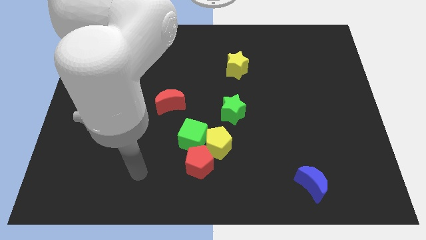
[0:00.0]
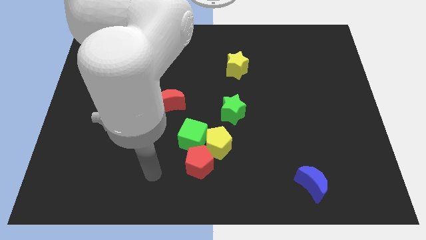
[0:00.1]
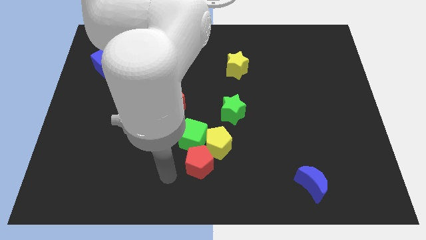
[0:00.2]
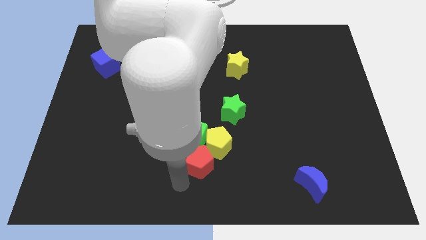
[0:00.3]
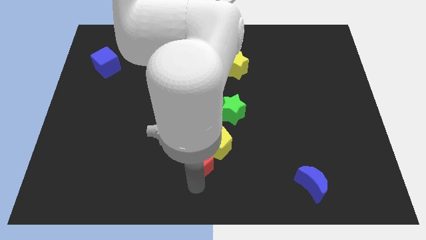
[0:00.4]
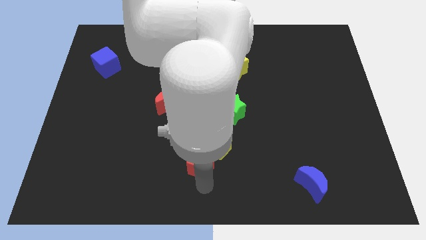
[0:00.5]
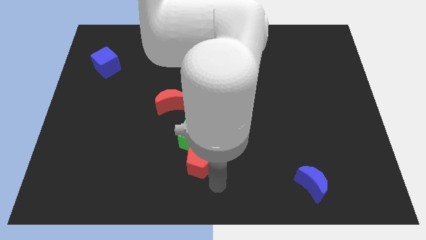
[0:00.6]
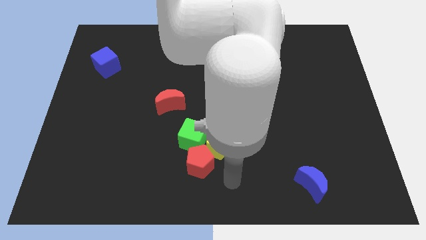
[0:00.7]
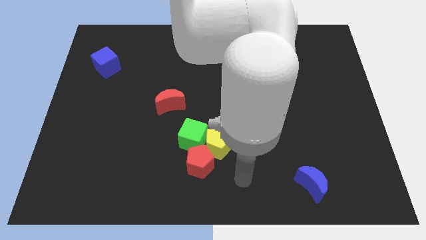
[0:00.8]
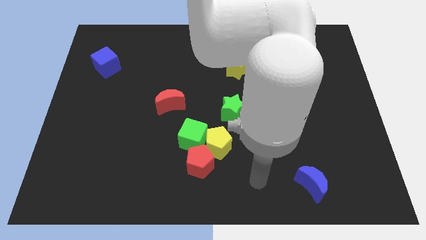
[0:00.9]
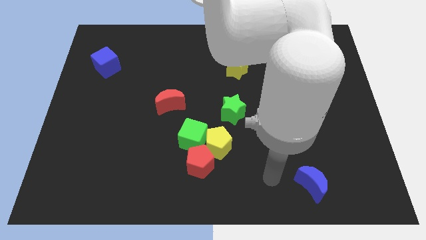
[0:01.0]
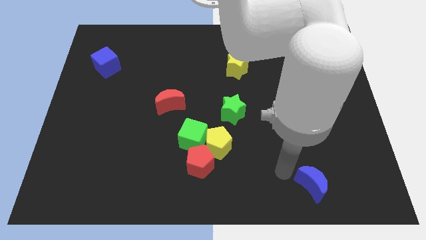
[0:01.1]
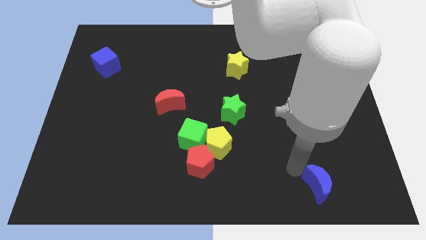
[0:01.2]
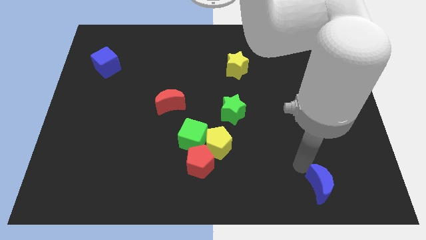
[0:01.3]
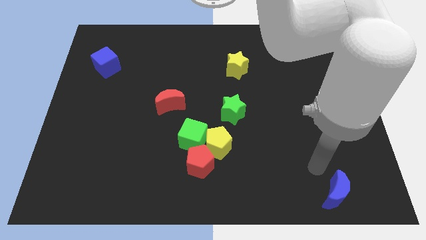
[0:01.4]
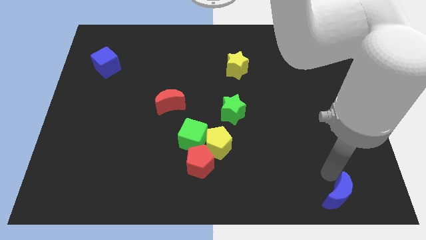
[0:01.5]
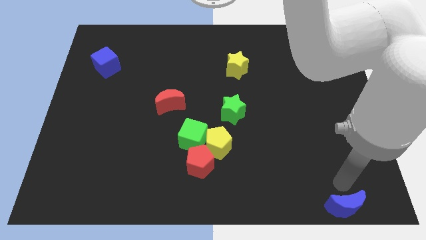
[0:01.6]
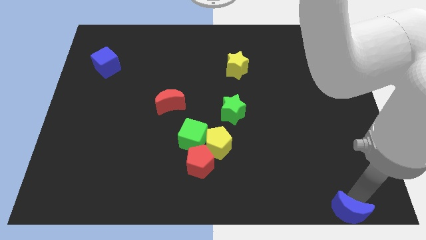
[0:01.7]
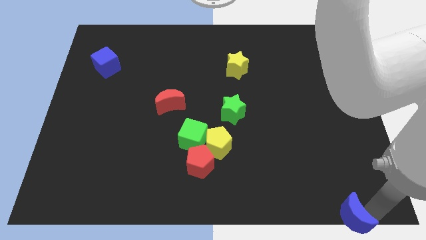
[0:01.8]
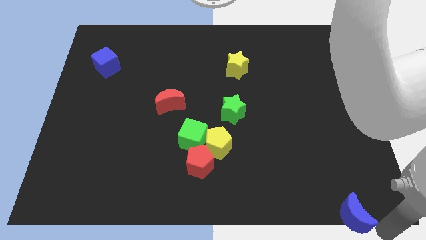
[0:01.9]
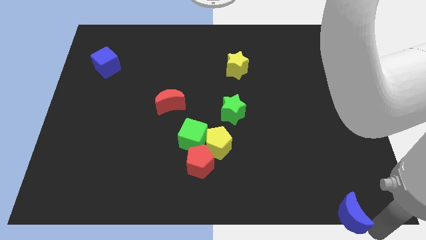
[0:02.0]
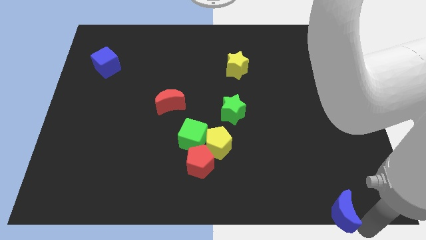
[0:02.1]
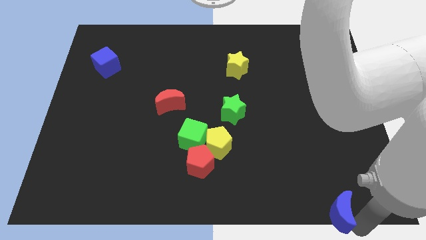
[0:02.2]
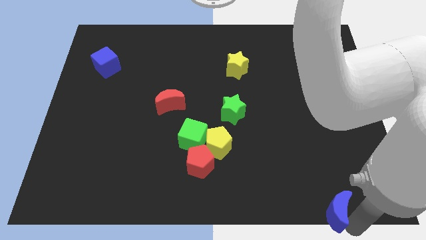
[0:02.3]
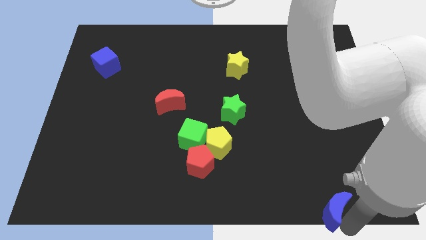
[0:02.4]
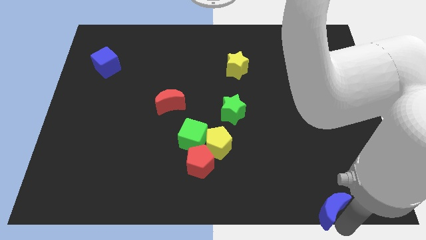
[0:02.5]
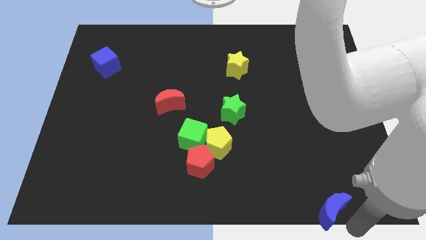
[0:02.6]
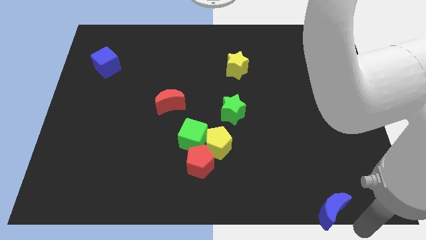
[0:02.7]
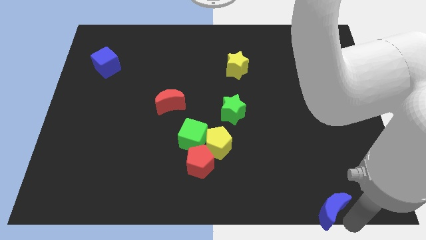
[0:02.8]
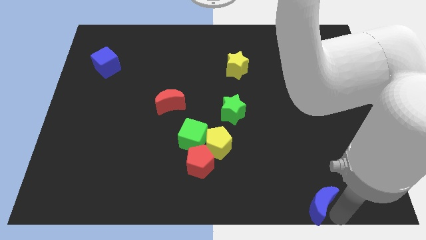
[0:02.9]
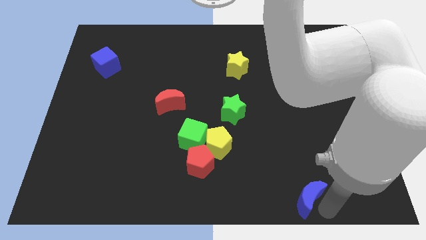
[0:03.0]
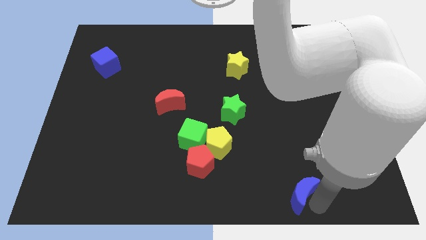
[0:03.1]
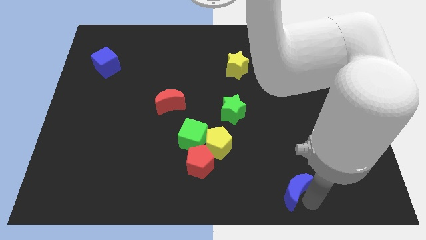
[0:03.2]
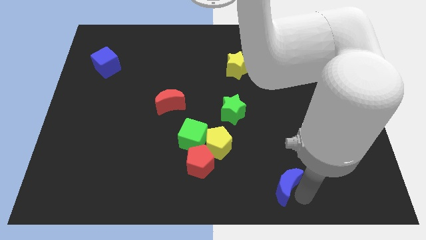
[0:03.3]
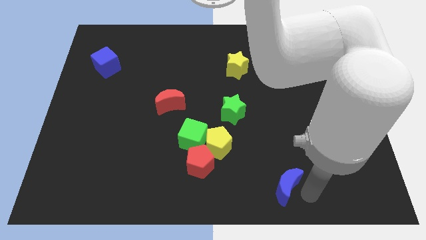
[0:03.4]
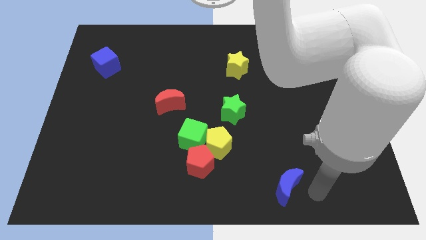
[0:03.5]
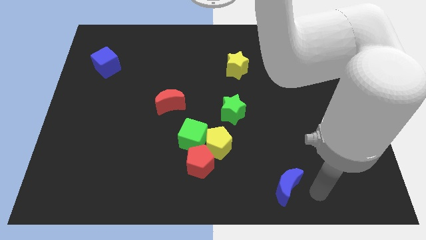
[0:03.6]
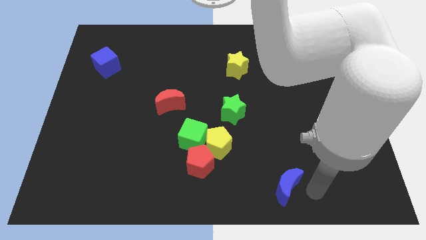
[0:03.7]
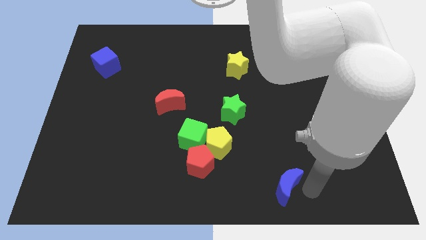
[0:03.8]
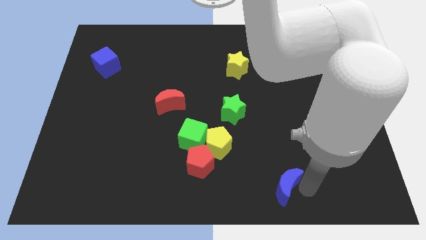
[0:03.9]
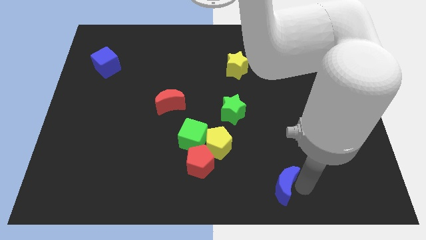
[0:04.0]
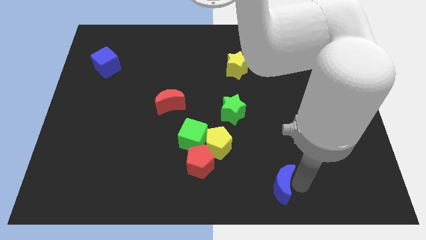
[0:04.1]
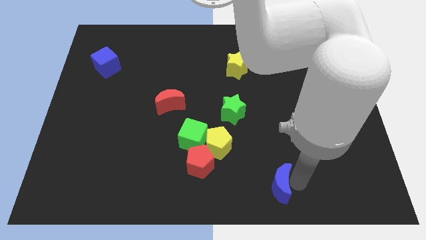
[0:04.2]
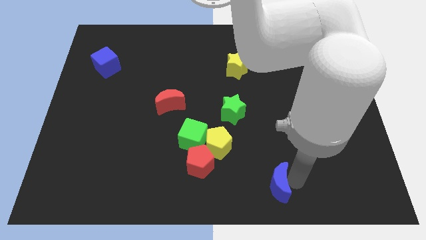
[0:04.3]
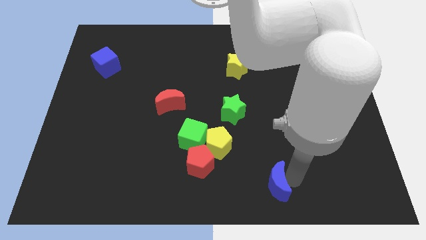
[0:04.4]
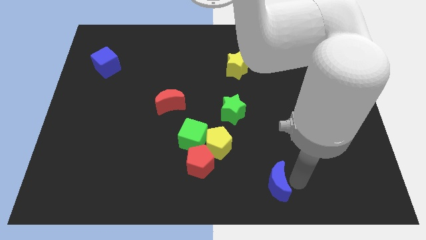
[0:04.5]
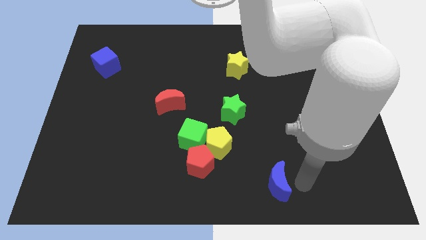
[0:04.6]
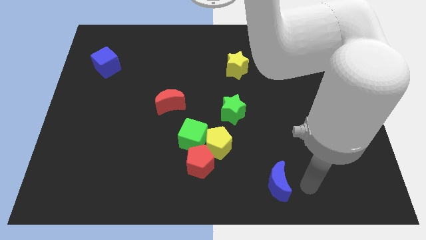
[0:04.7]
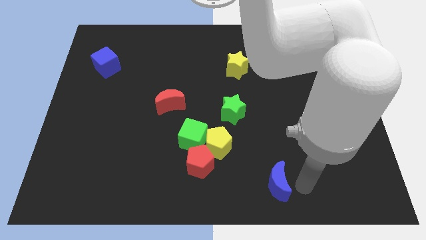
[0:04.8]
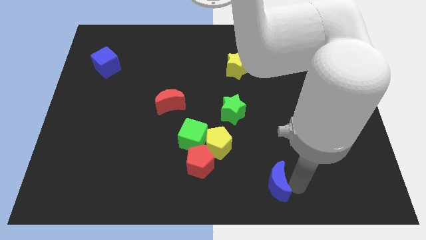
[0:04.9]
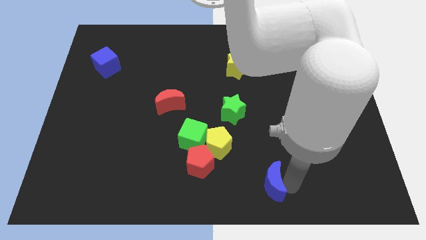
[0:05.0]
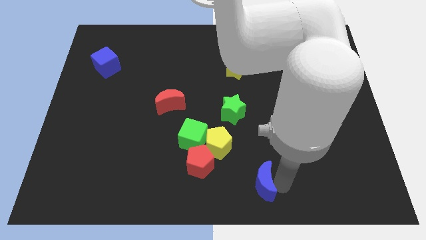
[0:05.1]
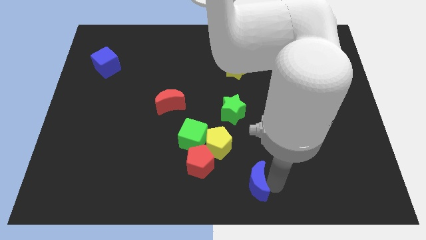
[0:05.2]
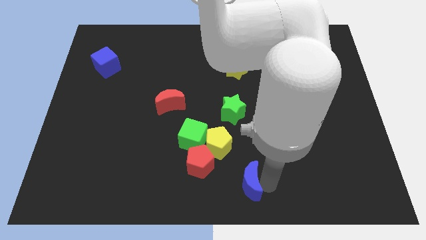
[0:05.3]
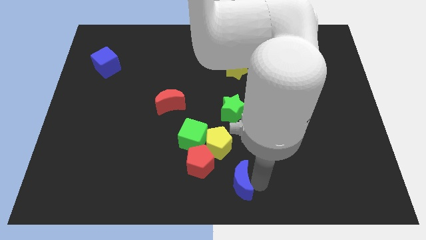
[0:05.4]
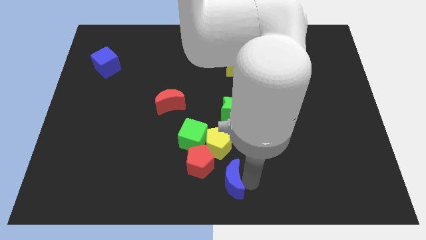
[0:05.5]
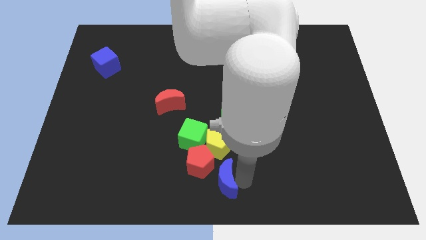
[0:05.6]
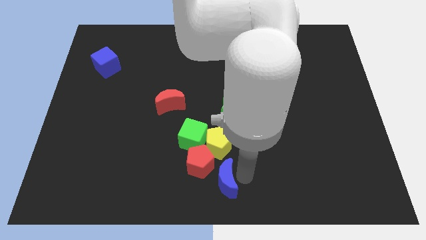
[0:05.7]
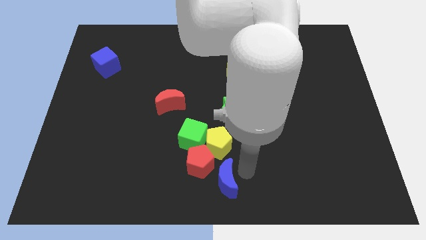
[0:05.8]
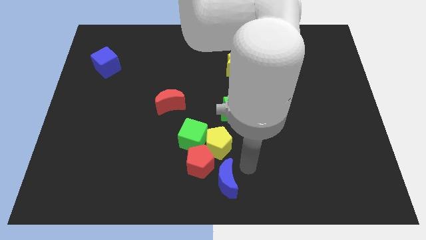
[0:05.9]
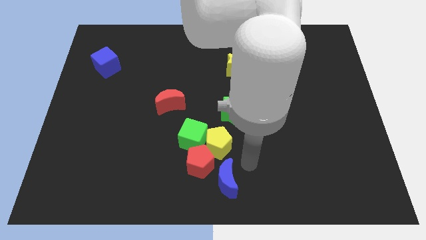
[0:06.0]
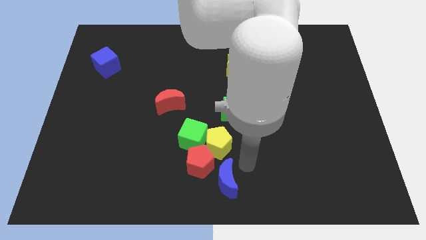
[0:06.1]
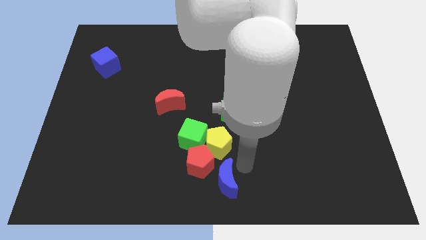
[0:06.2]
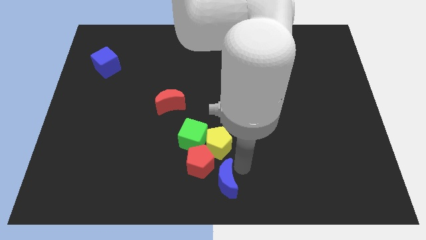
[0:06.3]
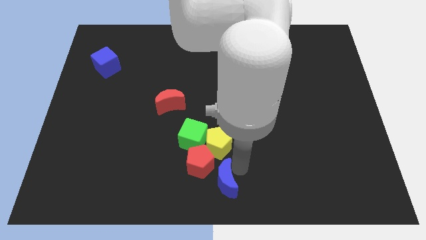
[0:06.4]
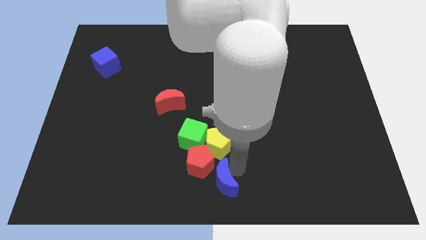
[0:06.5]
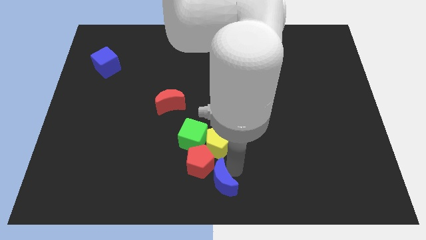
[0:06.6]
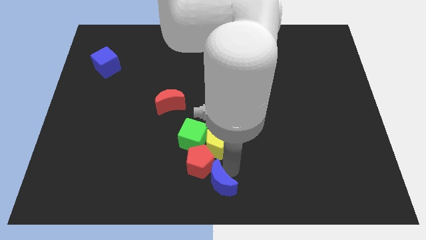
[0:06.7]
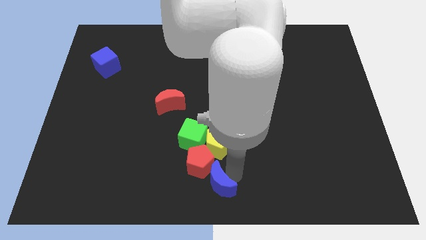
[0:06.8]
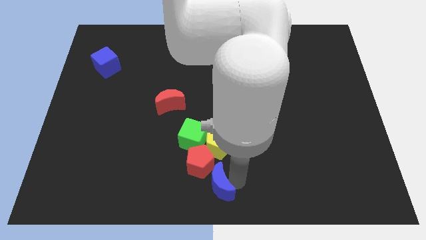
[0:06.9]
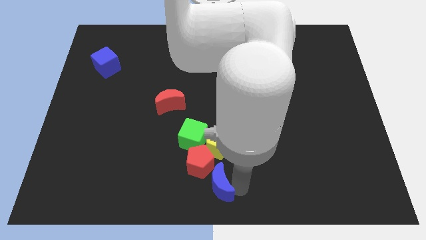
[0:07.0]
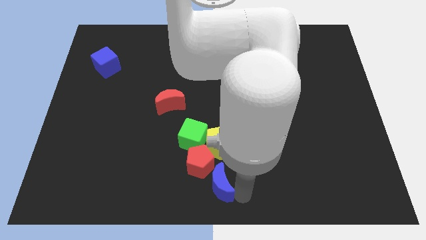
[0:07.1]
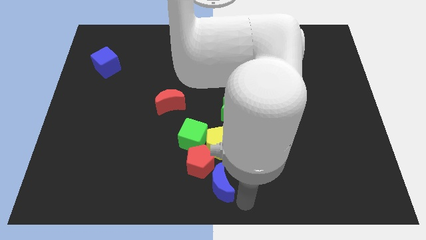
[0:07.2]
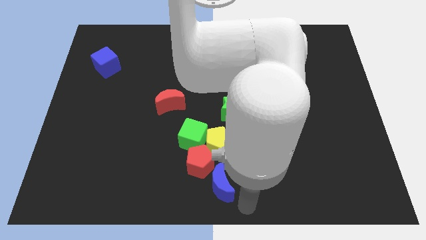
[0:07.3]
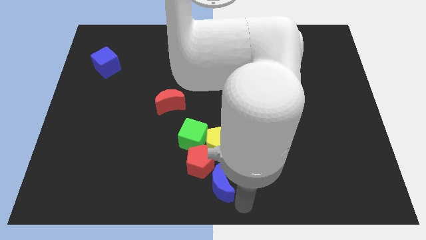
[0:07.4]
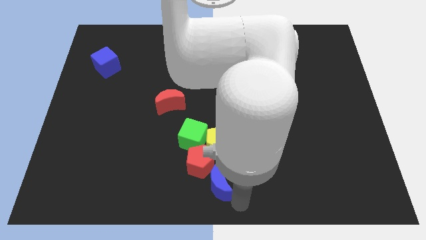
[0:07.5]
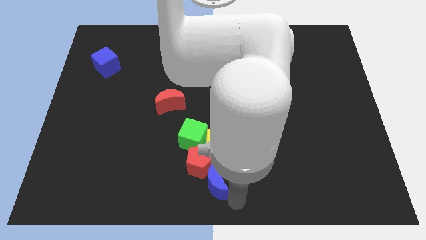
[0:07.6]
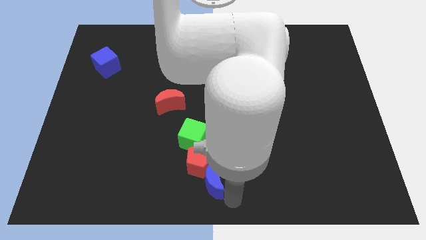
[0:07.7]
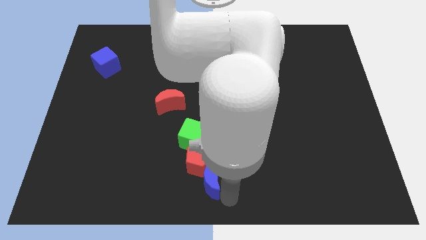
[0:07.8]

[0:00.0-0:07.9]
slide the blue moon to the bottom left side of the yellow pentagon
